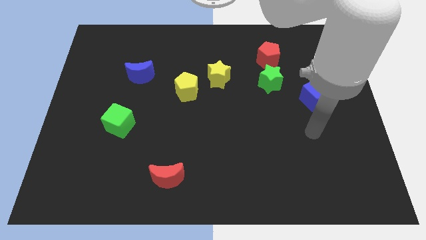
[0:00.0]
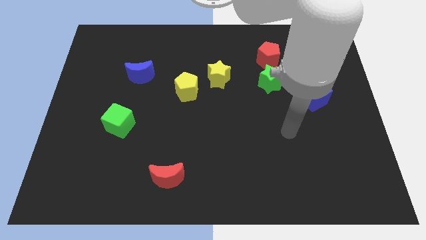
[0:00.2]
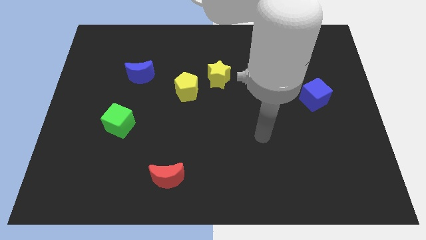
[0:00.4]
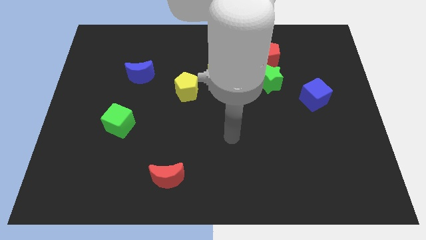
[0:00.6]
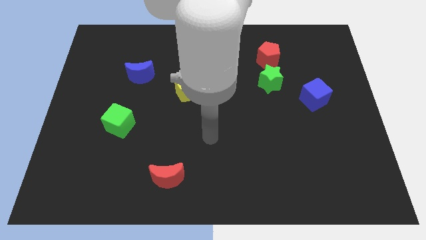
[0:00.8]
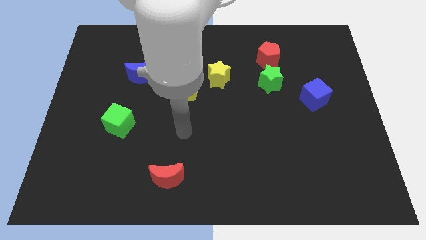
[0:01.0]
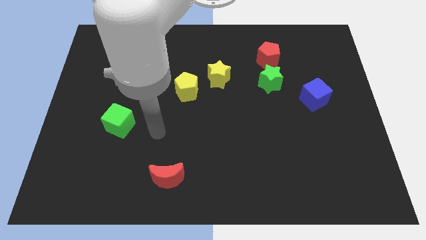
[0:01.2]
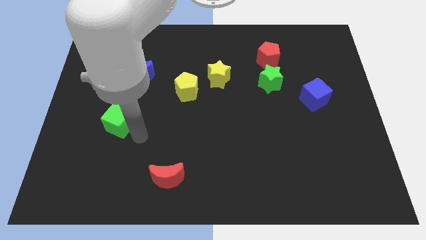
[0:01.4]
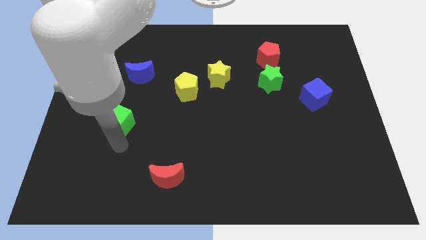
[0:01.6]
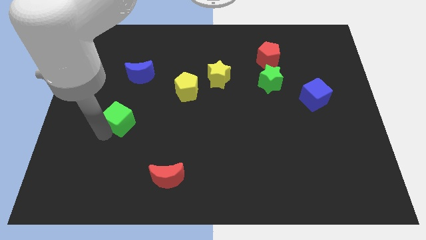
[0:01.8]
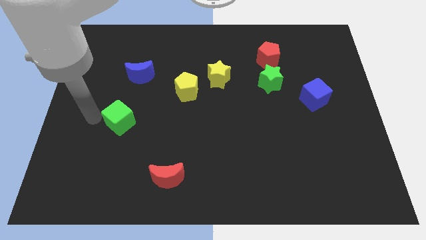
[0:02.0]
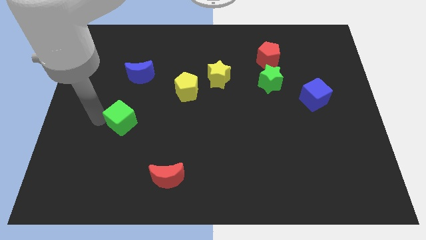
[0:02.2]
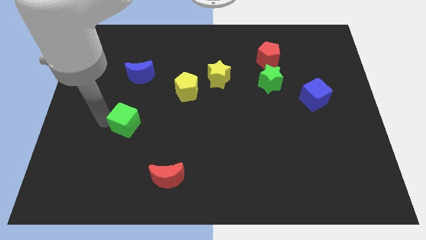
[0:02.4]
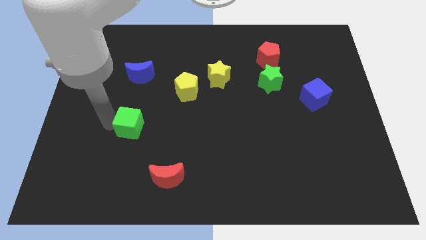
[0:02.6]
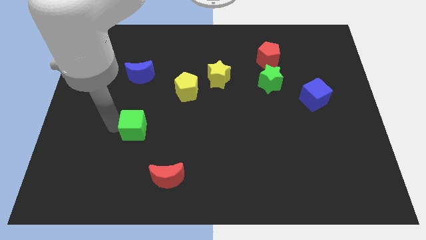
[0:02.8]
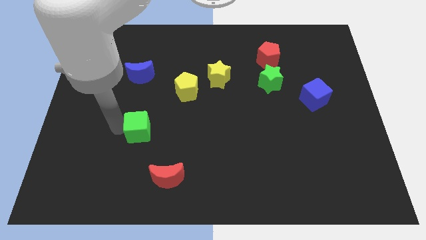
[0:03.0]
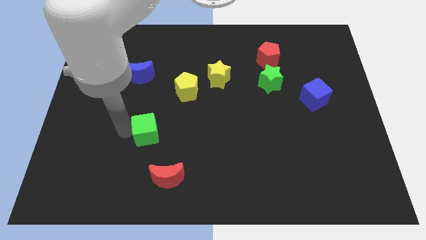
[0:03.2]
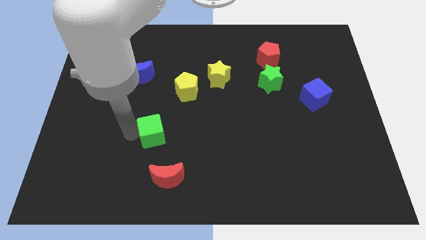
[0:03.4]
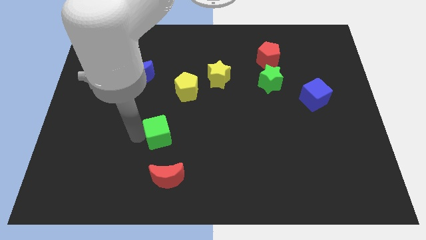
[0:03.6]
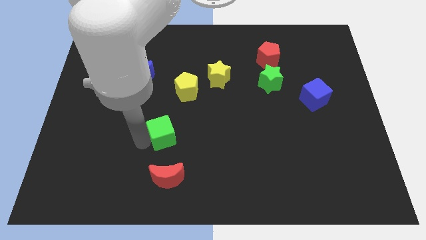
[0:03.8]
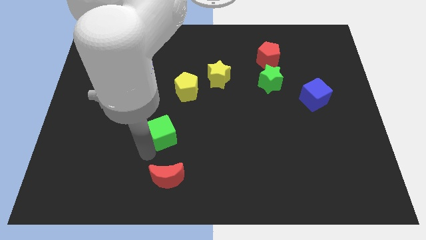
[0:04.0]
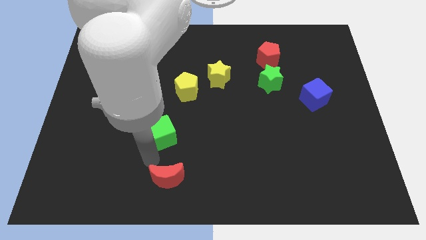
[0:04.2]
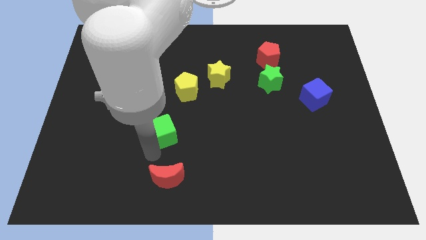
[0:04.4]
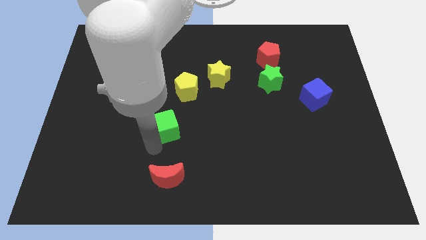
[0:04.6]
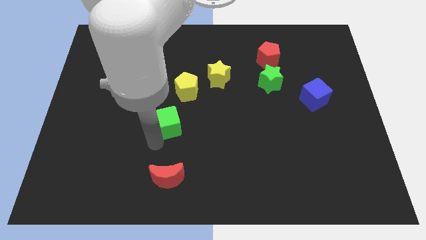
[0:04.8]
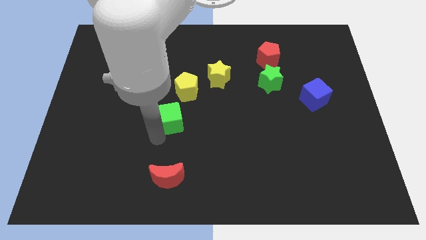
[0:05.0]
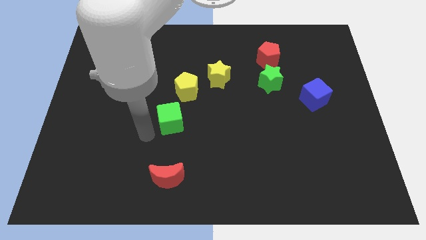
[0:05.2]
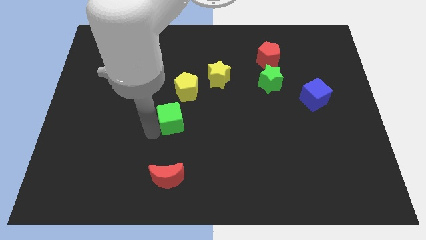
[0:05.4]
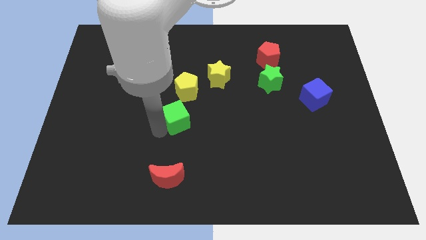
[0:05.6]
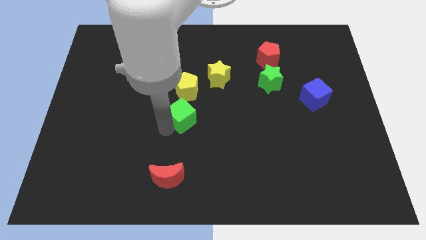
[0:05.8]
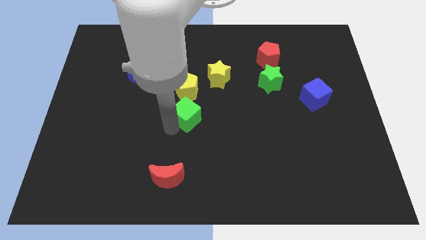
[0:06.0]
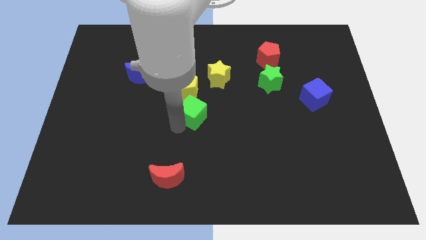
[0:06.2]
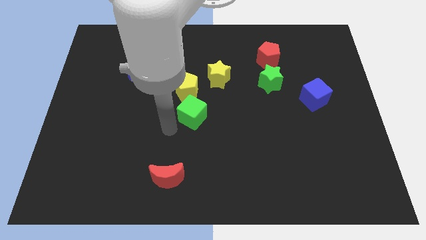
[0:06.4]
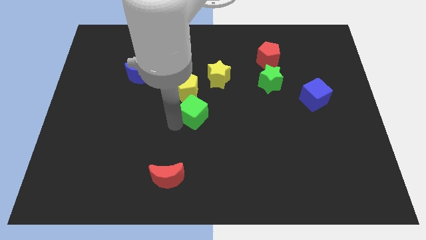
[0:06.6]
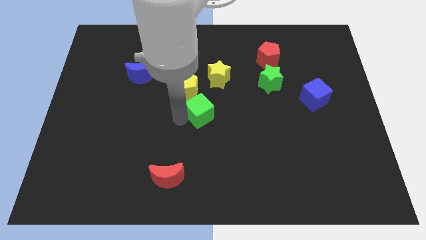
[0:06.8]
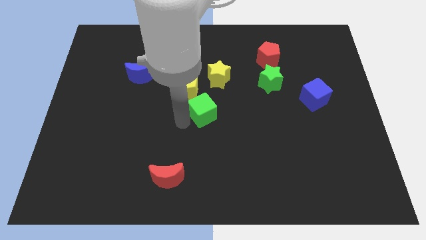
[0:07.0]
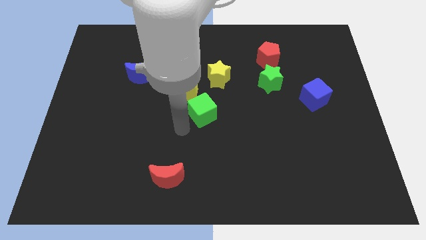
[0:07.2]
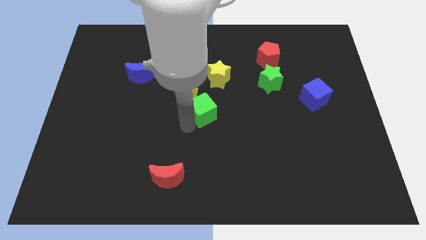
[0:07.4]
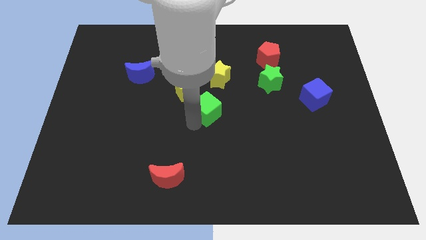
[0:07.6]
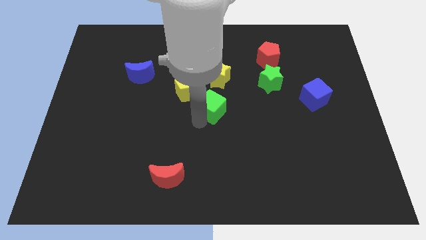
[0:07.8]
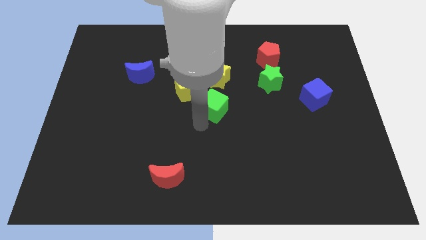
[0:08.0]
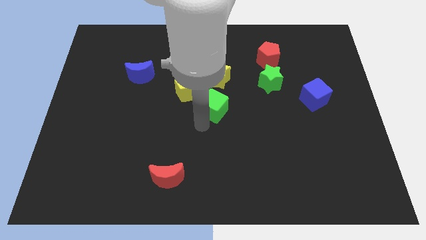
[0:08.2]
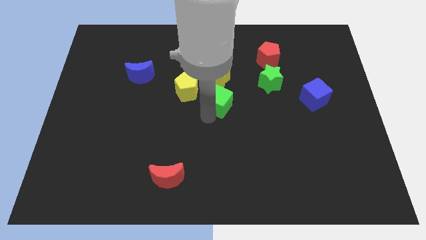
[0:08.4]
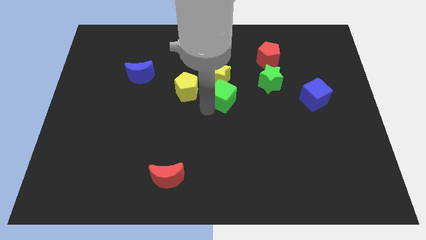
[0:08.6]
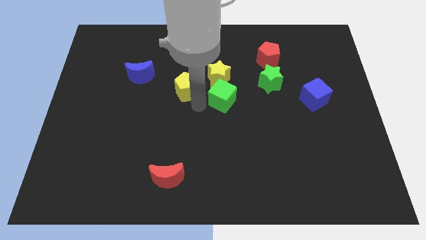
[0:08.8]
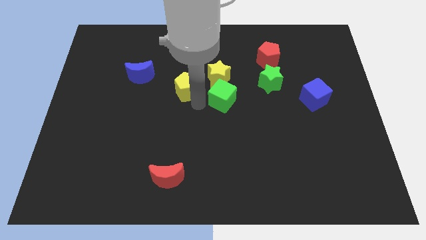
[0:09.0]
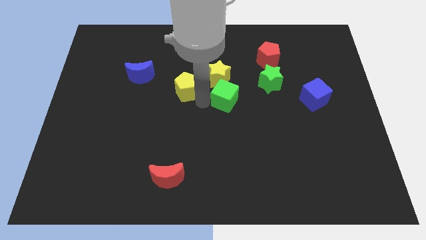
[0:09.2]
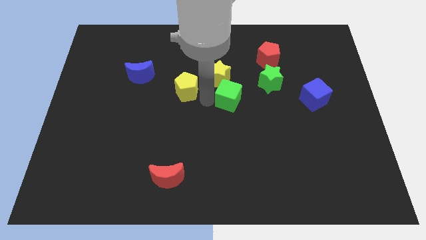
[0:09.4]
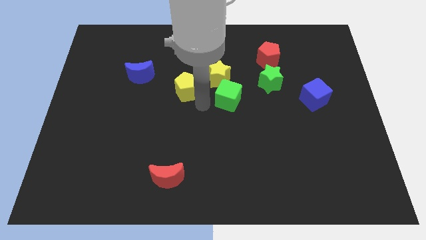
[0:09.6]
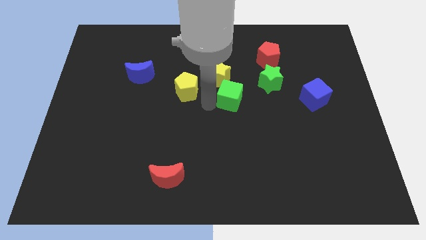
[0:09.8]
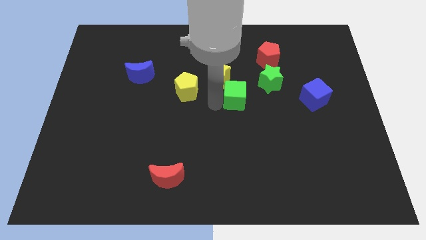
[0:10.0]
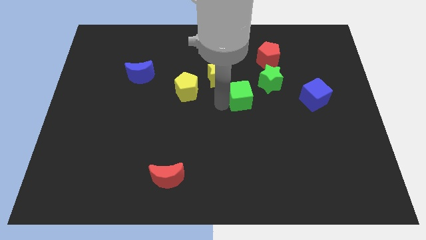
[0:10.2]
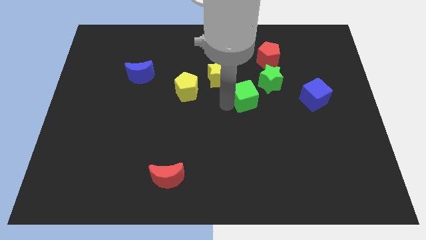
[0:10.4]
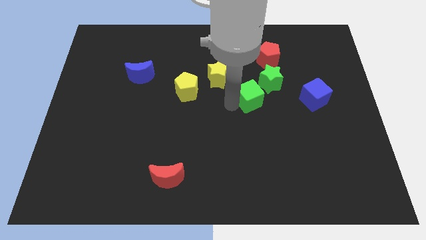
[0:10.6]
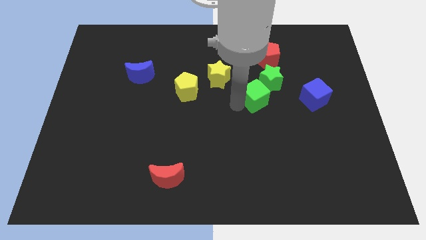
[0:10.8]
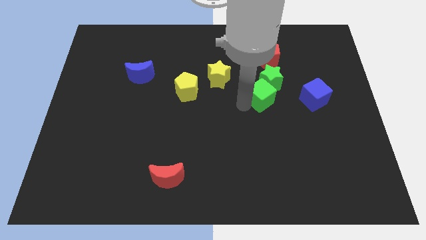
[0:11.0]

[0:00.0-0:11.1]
slide the green cube close to the green star

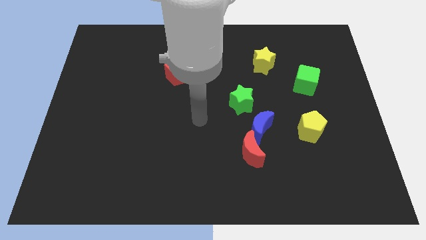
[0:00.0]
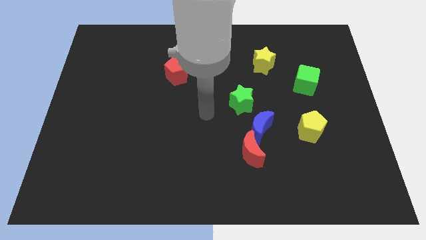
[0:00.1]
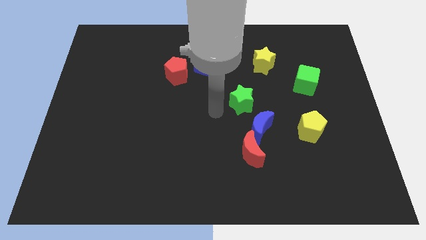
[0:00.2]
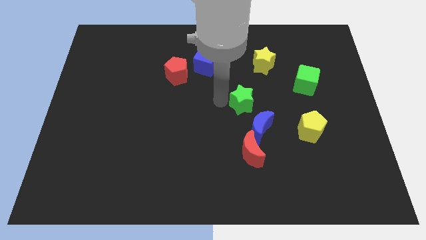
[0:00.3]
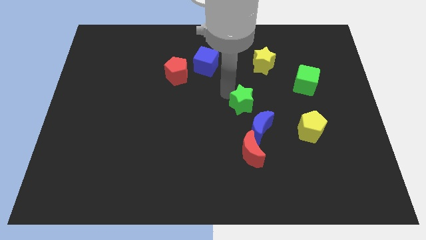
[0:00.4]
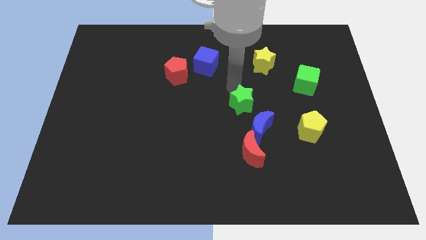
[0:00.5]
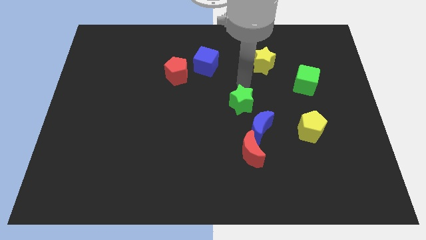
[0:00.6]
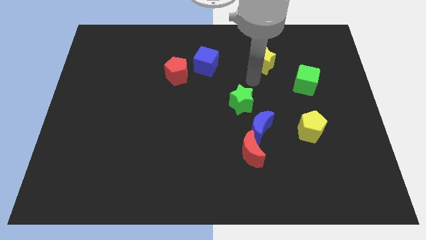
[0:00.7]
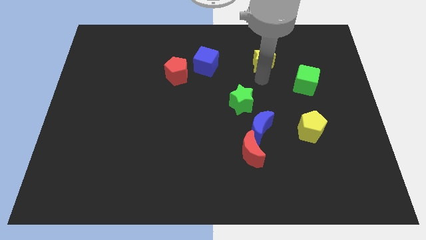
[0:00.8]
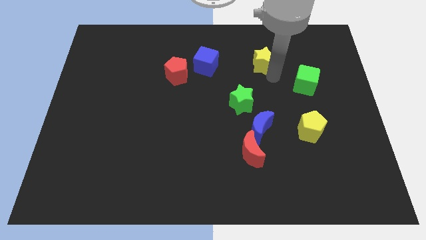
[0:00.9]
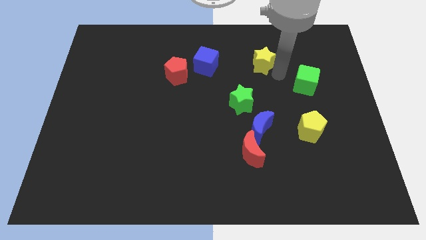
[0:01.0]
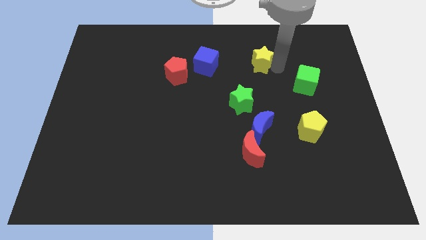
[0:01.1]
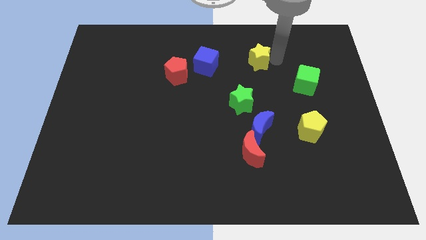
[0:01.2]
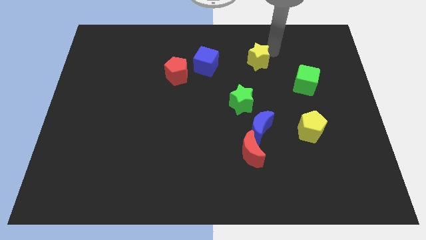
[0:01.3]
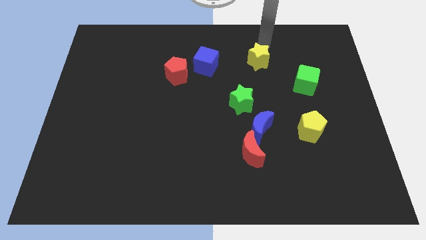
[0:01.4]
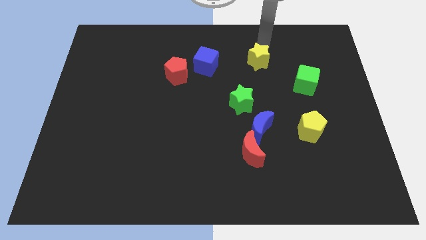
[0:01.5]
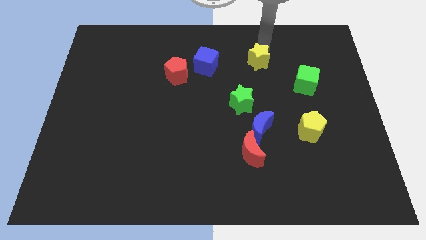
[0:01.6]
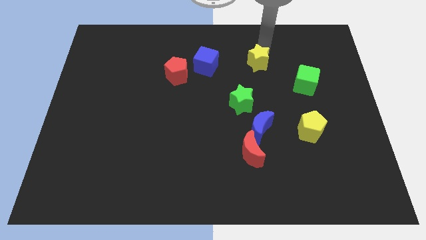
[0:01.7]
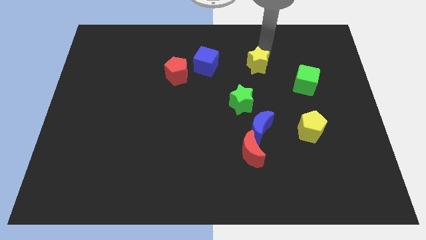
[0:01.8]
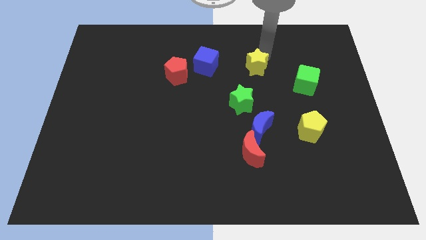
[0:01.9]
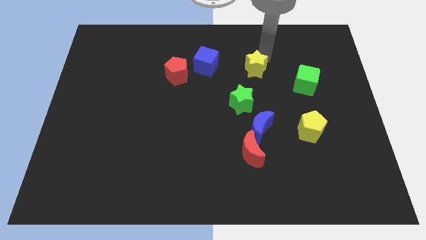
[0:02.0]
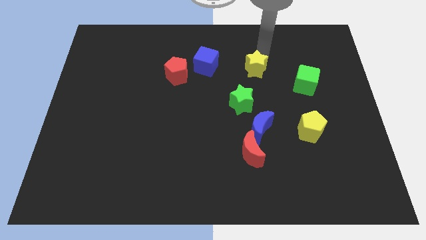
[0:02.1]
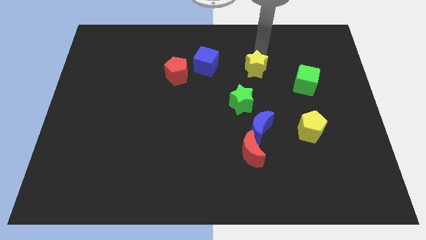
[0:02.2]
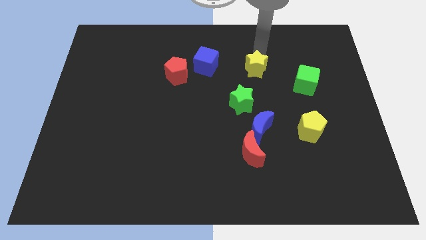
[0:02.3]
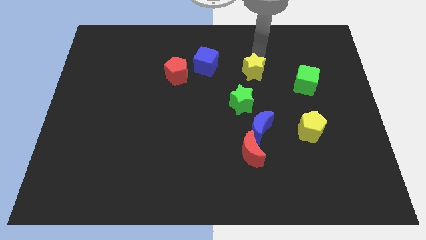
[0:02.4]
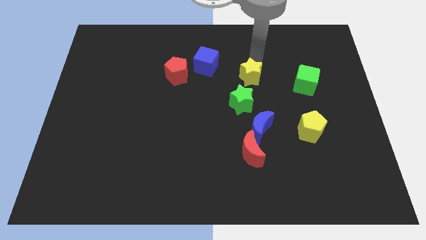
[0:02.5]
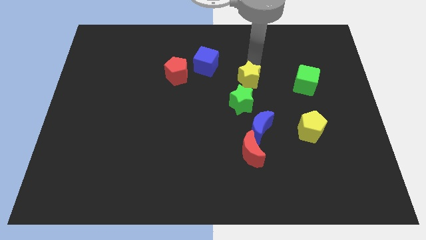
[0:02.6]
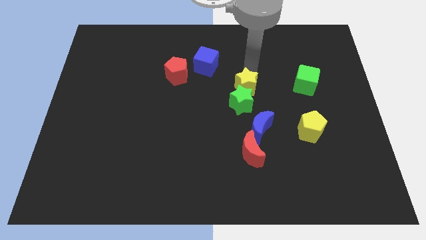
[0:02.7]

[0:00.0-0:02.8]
put the yellow star next to the green star
